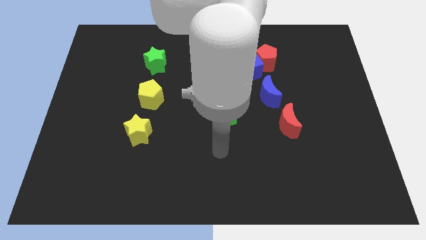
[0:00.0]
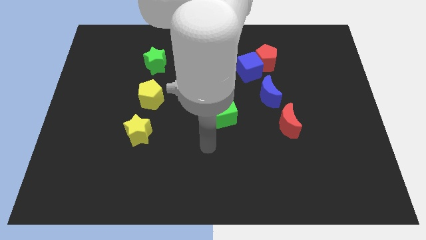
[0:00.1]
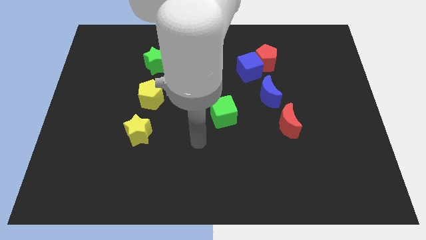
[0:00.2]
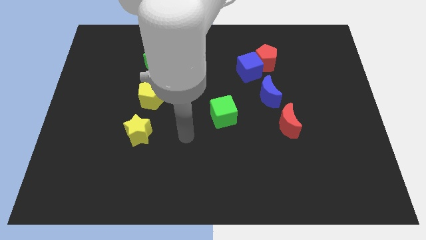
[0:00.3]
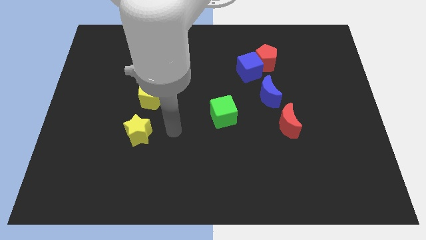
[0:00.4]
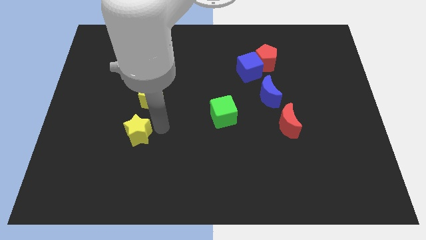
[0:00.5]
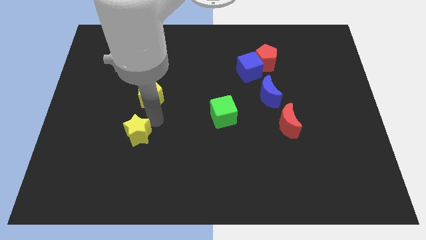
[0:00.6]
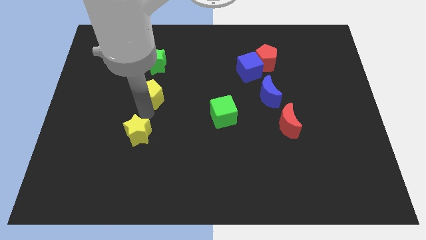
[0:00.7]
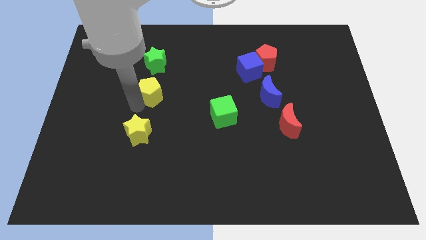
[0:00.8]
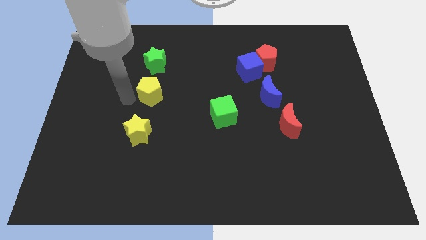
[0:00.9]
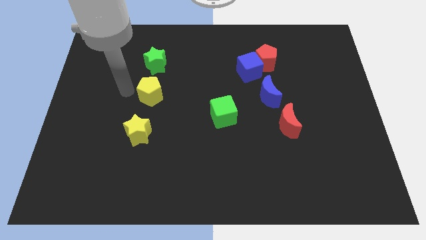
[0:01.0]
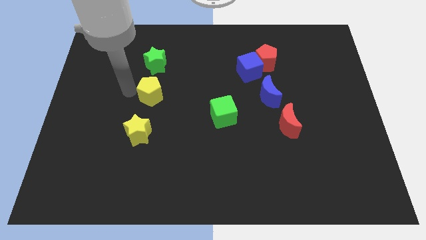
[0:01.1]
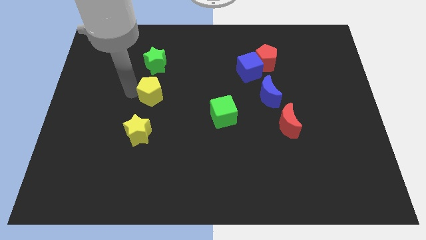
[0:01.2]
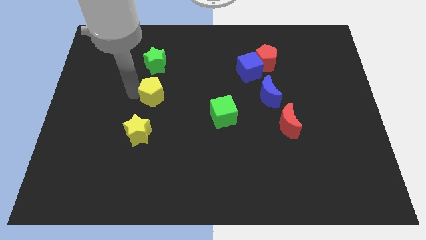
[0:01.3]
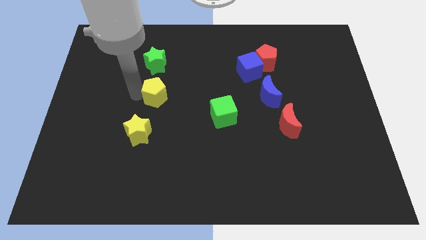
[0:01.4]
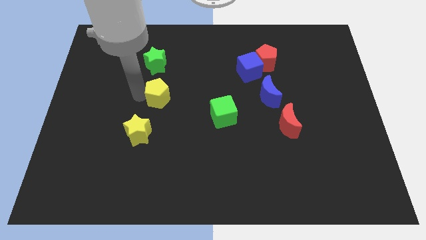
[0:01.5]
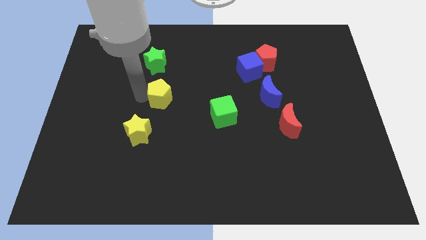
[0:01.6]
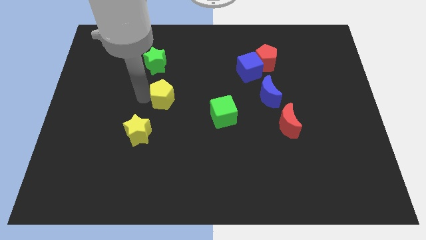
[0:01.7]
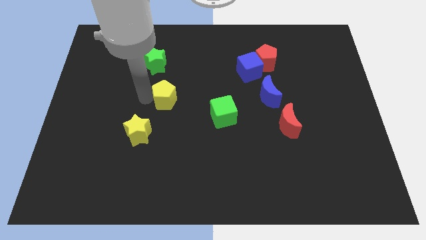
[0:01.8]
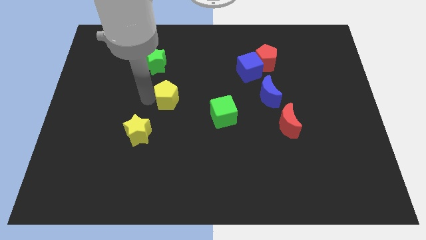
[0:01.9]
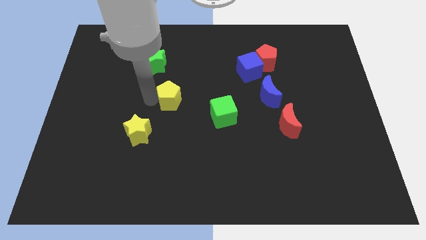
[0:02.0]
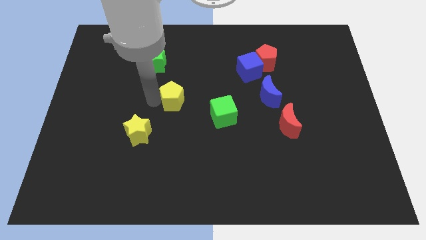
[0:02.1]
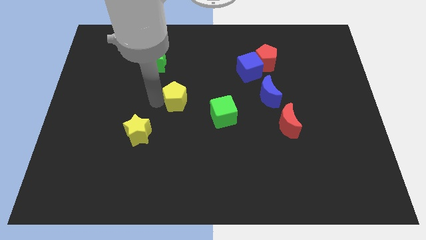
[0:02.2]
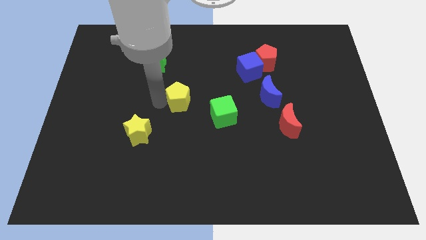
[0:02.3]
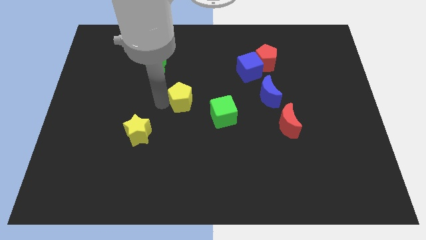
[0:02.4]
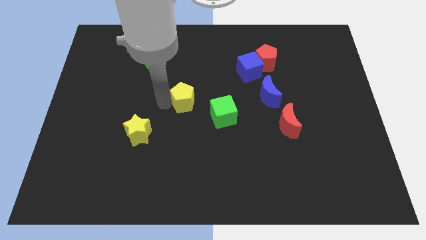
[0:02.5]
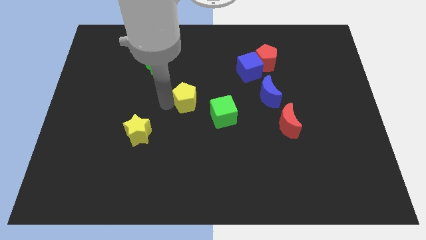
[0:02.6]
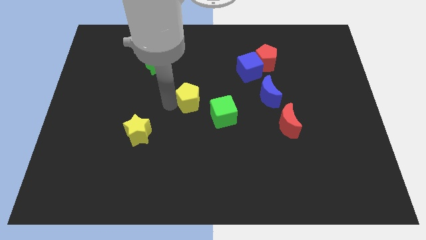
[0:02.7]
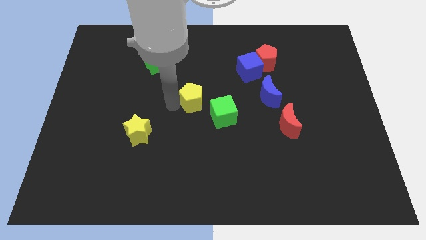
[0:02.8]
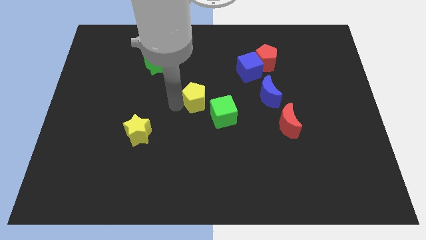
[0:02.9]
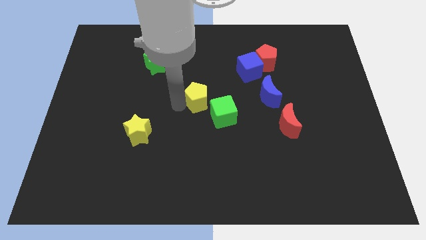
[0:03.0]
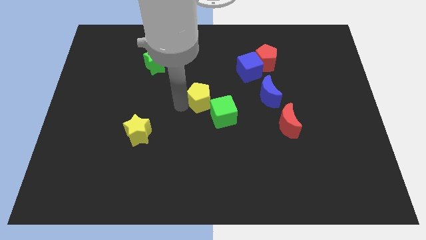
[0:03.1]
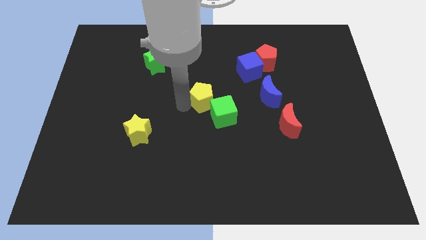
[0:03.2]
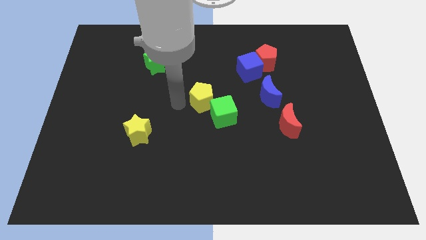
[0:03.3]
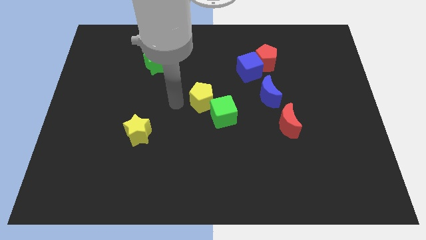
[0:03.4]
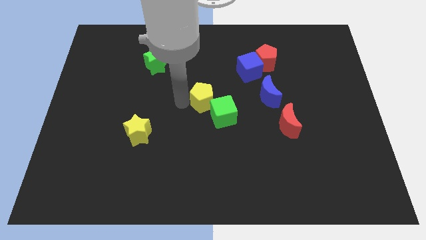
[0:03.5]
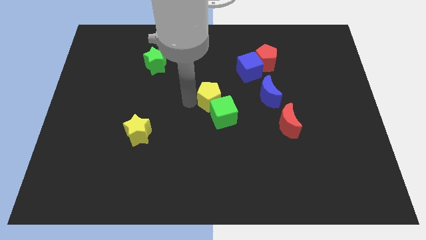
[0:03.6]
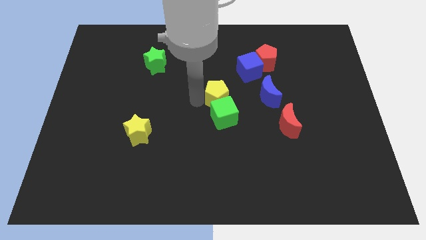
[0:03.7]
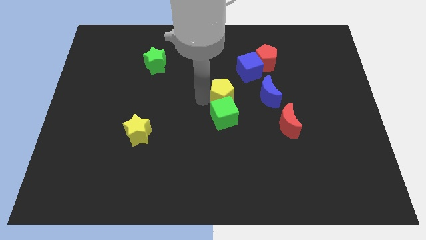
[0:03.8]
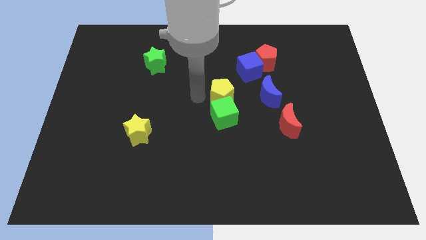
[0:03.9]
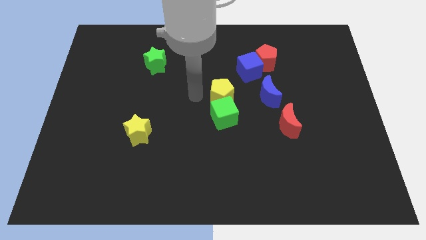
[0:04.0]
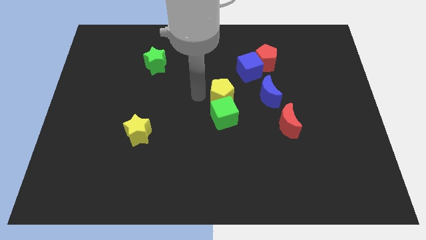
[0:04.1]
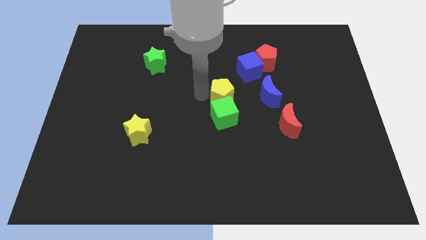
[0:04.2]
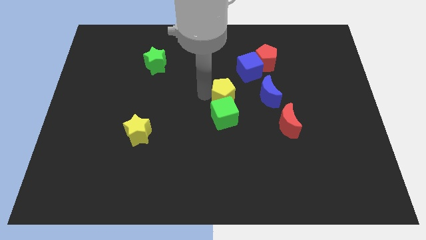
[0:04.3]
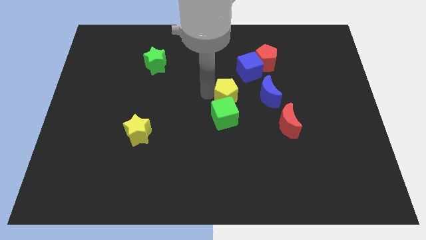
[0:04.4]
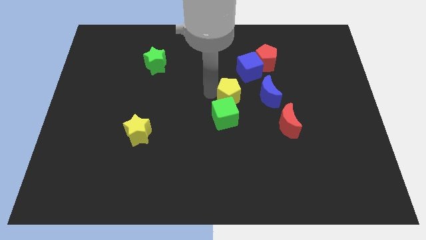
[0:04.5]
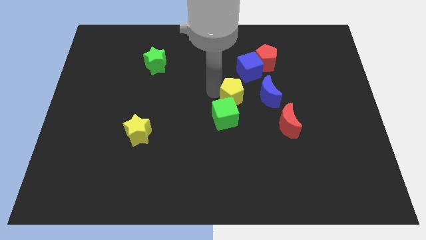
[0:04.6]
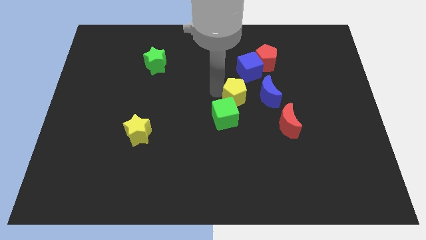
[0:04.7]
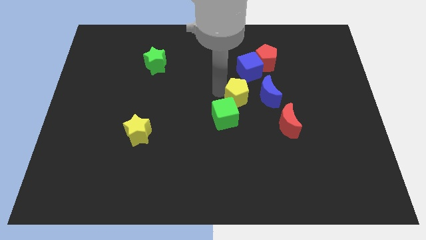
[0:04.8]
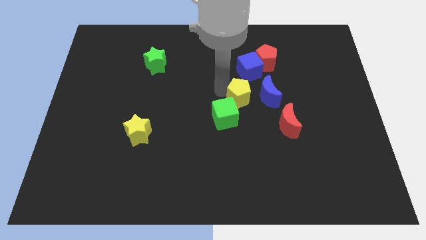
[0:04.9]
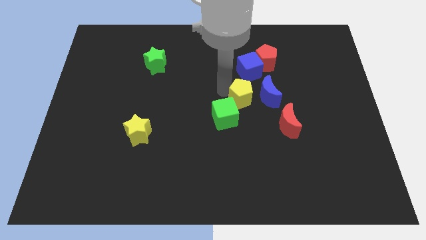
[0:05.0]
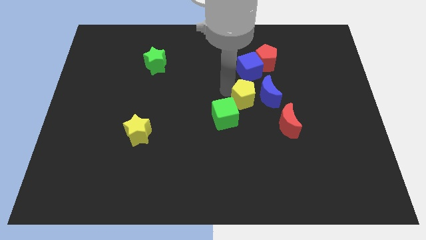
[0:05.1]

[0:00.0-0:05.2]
put the yellow pentagon towards the blue moon

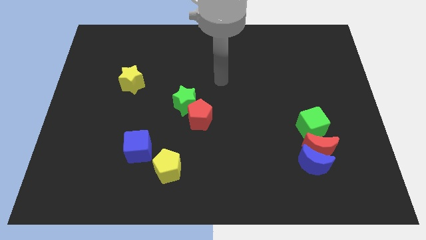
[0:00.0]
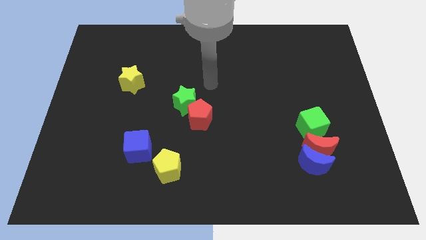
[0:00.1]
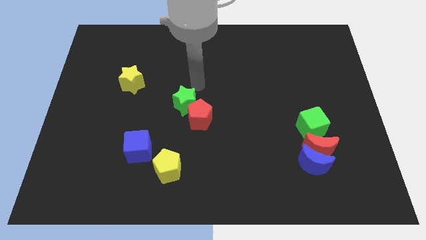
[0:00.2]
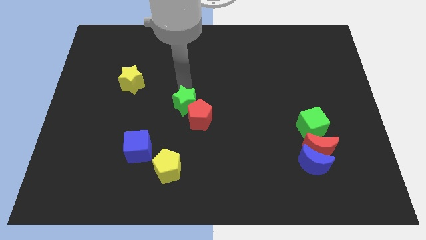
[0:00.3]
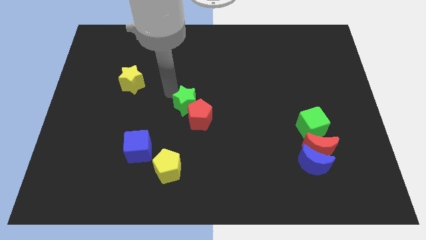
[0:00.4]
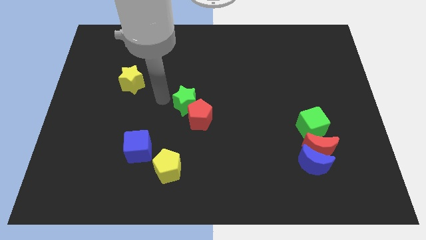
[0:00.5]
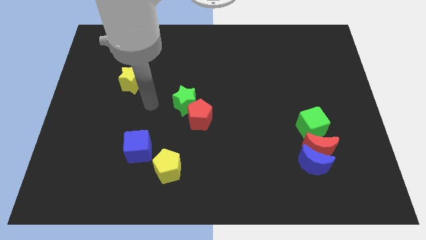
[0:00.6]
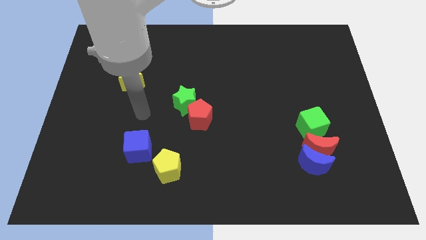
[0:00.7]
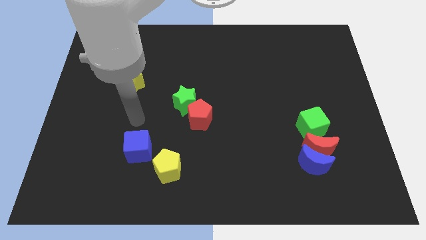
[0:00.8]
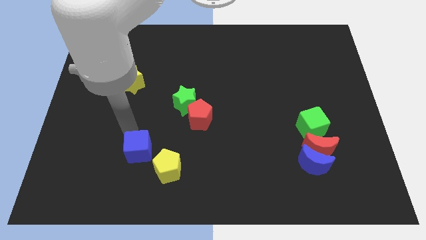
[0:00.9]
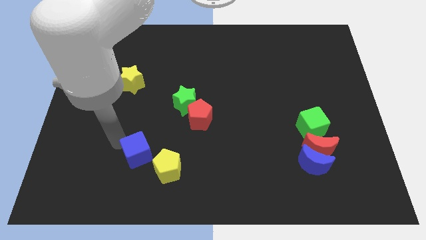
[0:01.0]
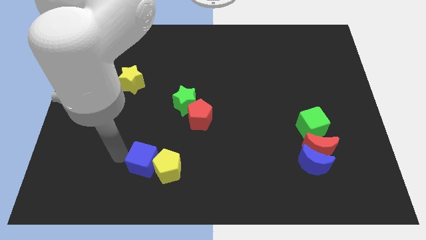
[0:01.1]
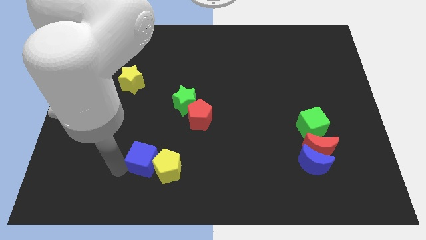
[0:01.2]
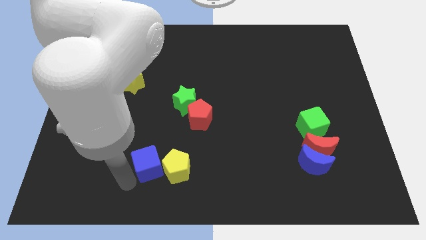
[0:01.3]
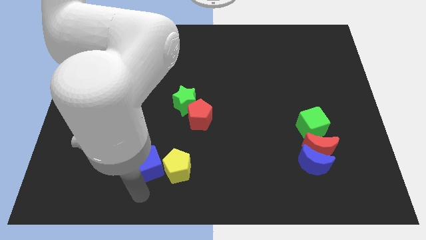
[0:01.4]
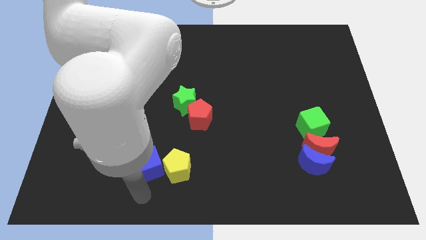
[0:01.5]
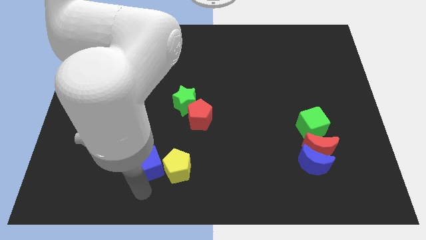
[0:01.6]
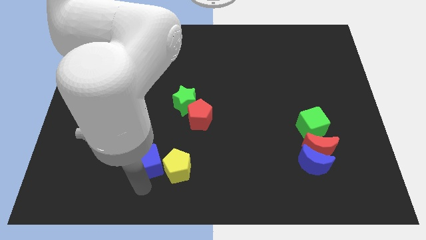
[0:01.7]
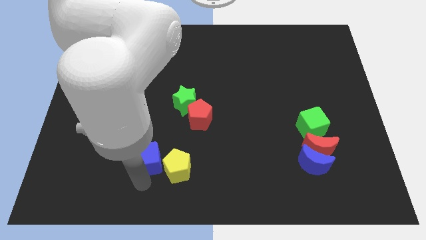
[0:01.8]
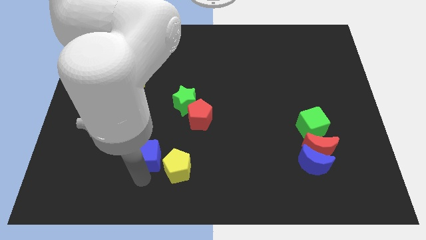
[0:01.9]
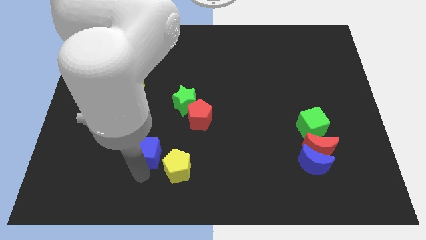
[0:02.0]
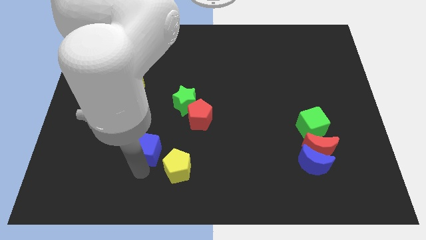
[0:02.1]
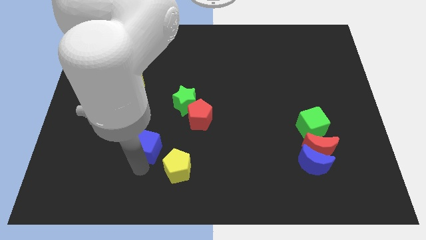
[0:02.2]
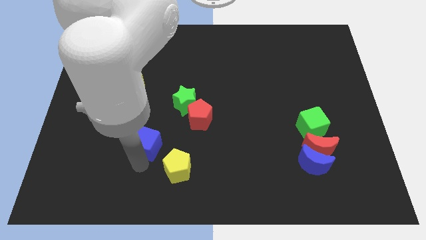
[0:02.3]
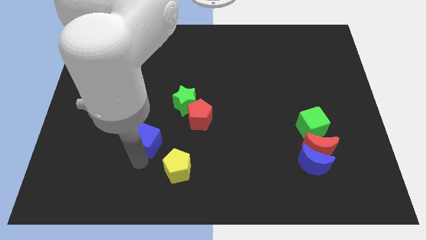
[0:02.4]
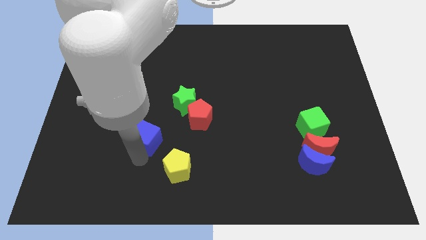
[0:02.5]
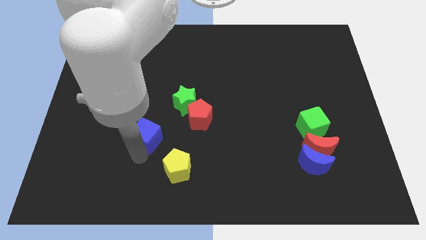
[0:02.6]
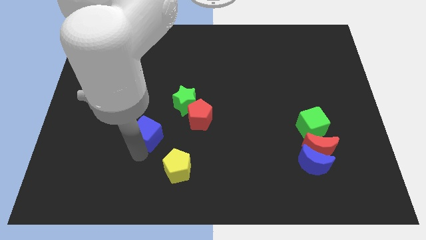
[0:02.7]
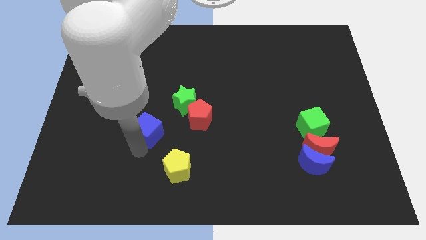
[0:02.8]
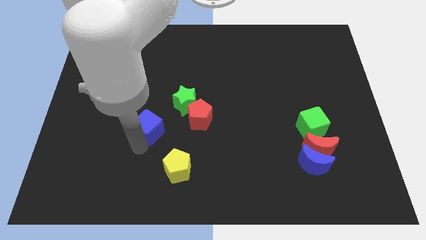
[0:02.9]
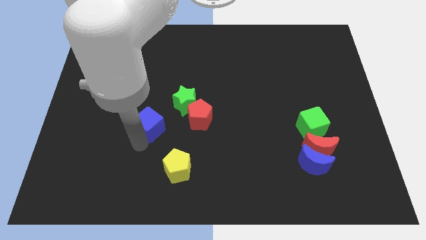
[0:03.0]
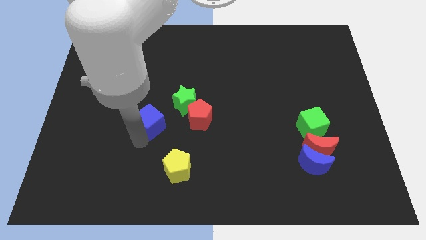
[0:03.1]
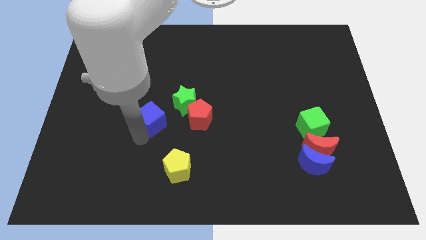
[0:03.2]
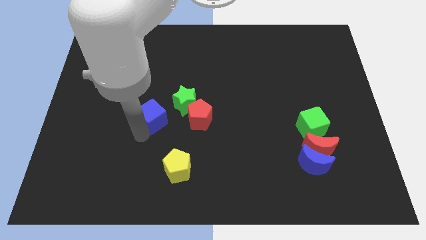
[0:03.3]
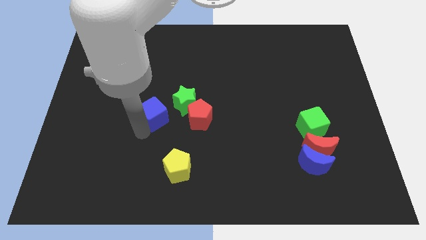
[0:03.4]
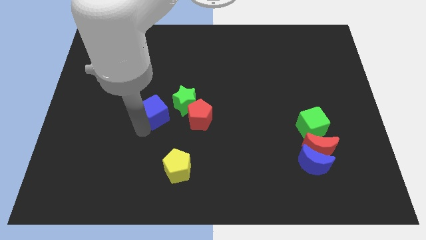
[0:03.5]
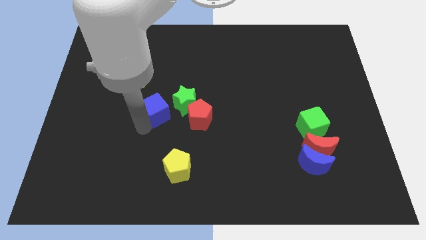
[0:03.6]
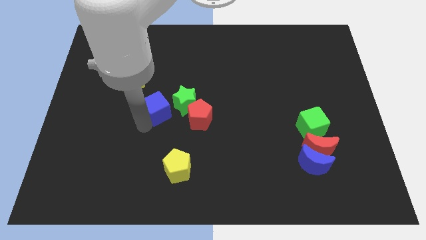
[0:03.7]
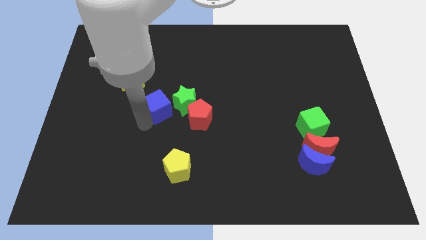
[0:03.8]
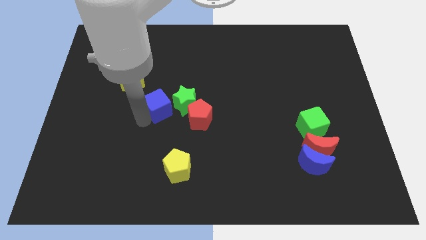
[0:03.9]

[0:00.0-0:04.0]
push the blue cube to the green star
